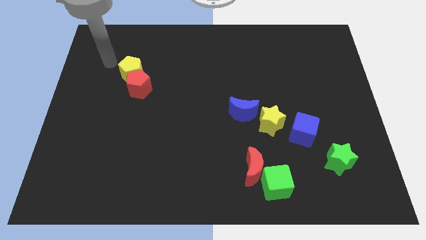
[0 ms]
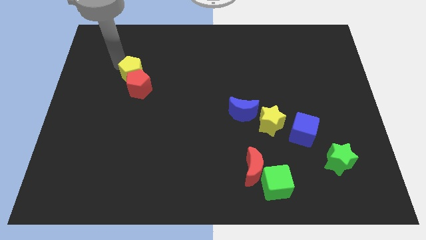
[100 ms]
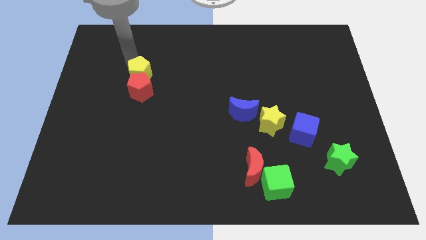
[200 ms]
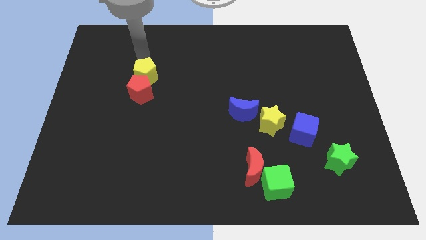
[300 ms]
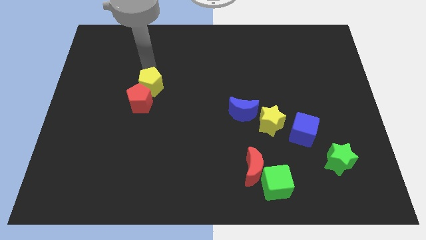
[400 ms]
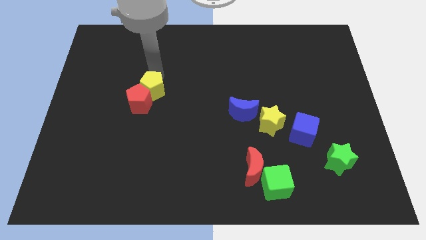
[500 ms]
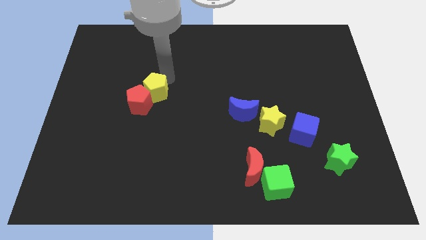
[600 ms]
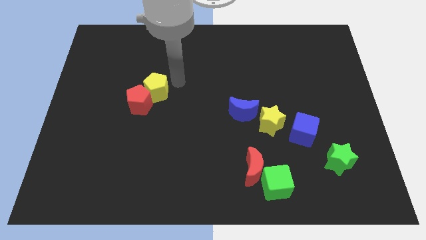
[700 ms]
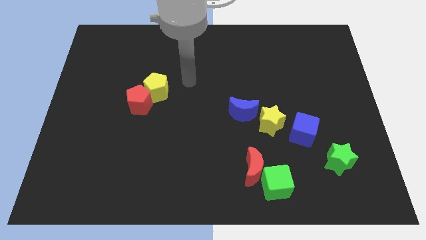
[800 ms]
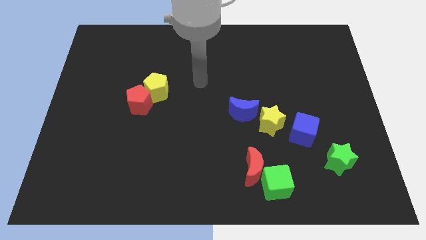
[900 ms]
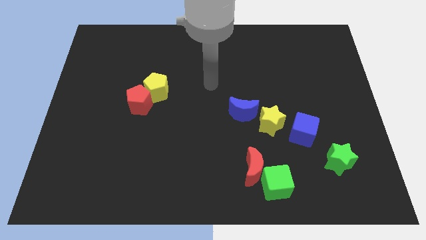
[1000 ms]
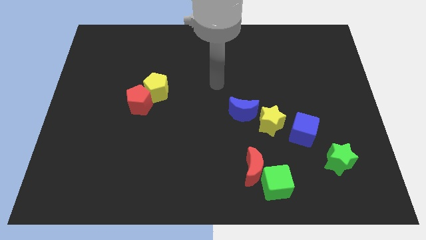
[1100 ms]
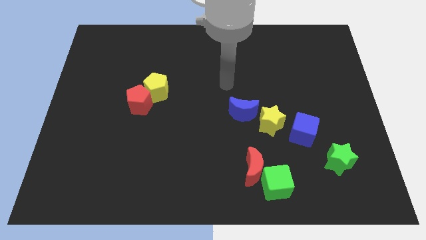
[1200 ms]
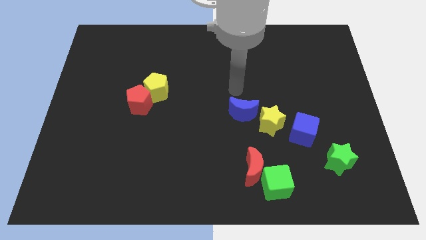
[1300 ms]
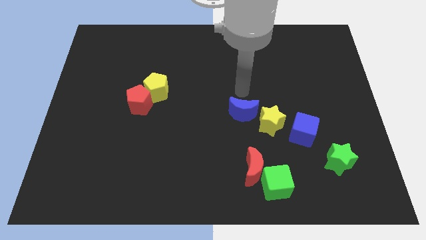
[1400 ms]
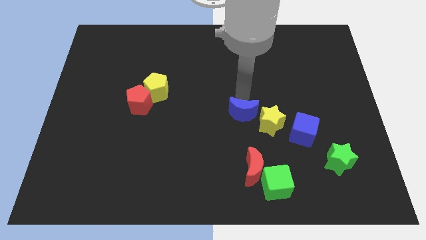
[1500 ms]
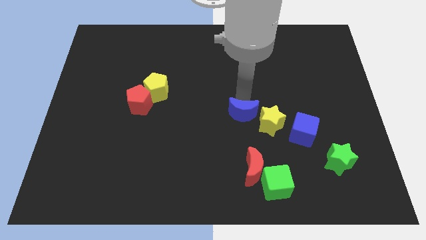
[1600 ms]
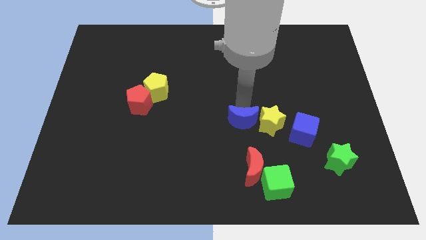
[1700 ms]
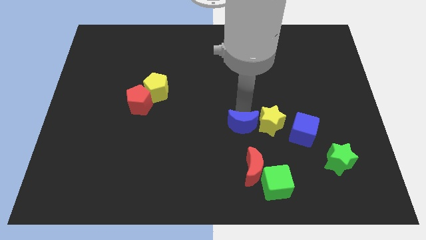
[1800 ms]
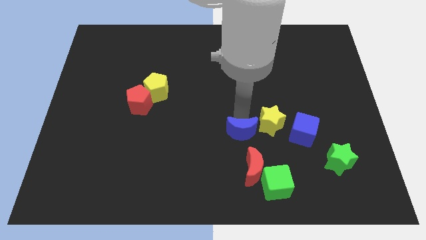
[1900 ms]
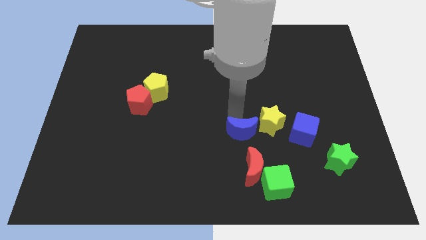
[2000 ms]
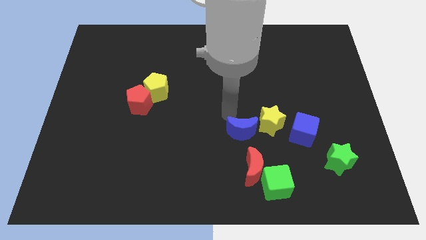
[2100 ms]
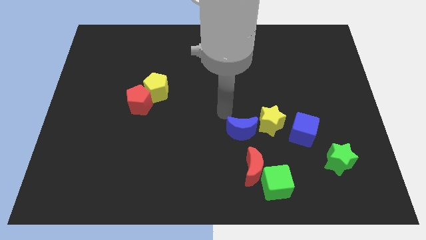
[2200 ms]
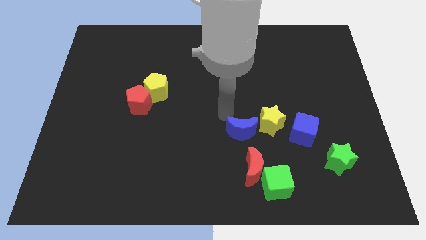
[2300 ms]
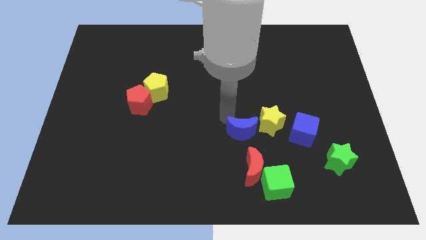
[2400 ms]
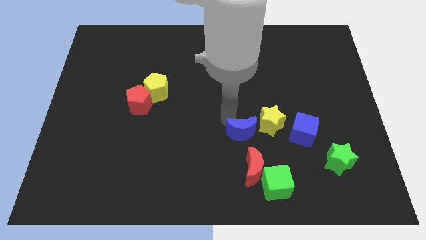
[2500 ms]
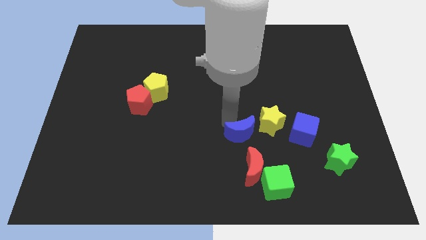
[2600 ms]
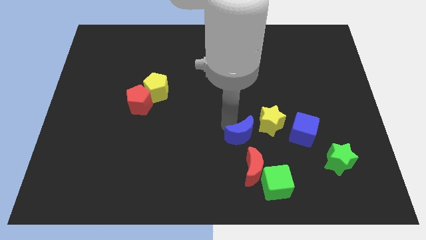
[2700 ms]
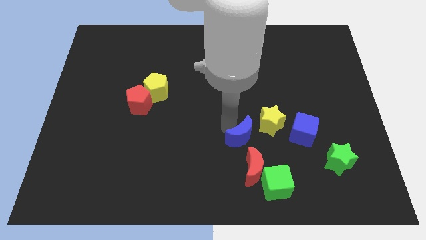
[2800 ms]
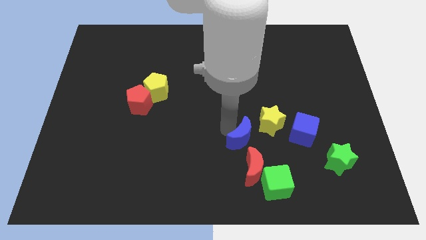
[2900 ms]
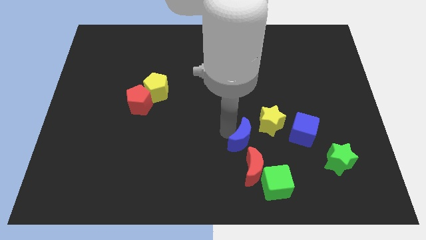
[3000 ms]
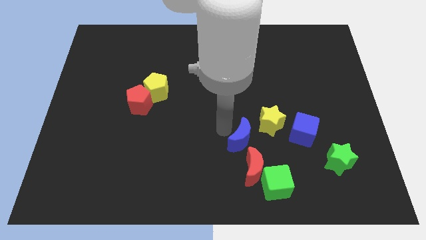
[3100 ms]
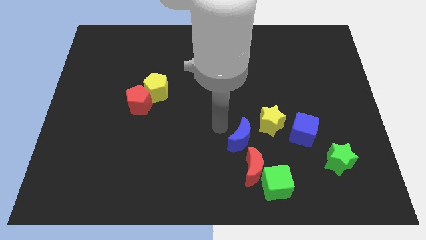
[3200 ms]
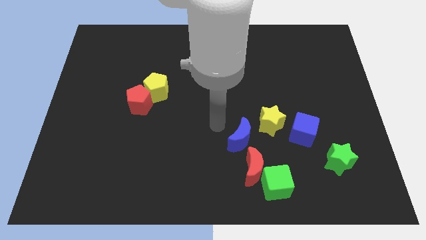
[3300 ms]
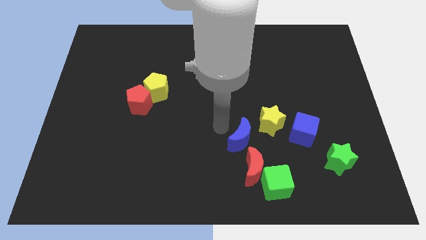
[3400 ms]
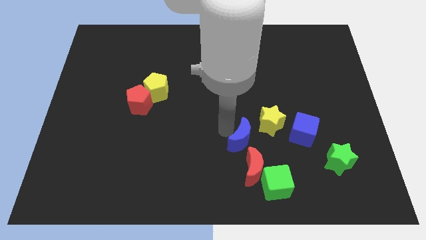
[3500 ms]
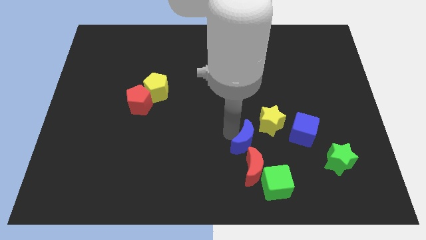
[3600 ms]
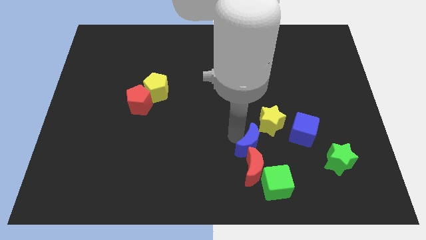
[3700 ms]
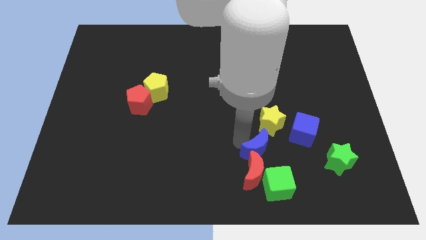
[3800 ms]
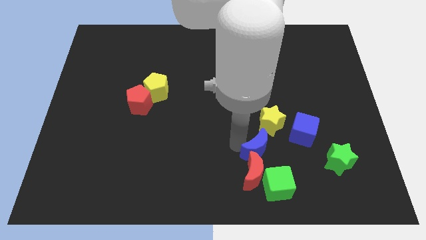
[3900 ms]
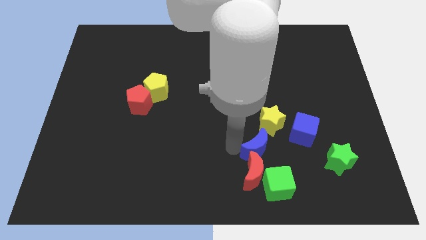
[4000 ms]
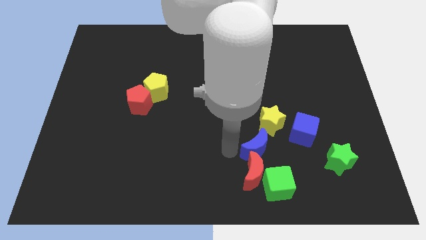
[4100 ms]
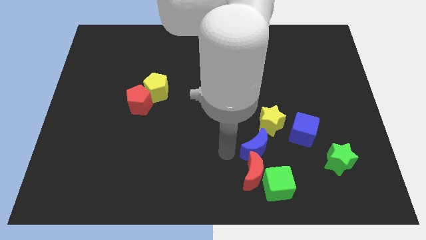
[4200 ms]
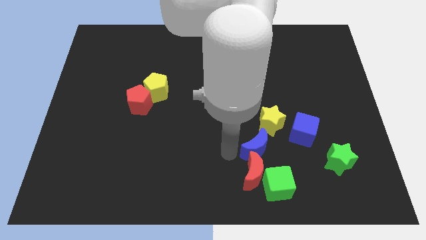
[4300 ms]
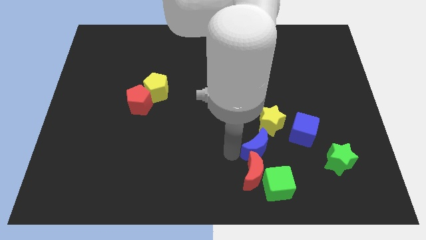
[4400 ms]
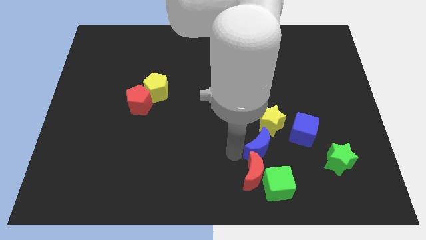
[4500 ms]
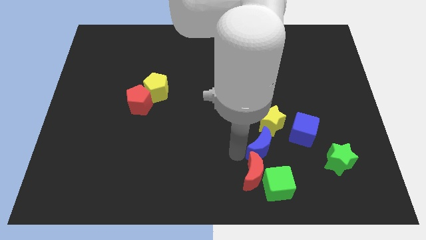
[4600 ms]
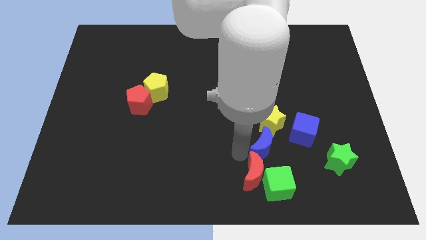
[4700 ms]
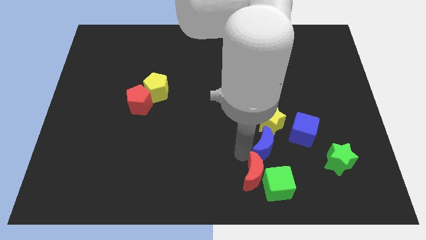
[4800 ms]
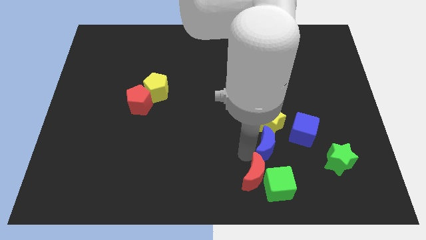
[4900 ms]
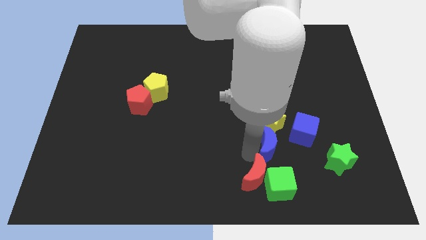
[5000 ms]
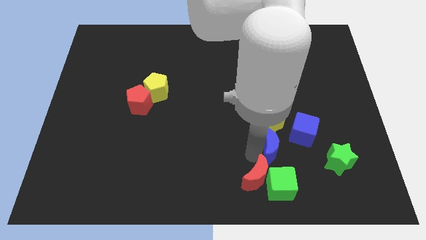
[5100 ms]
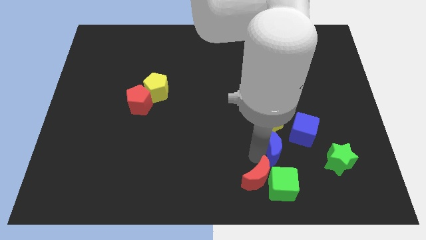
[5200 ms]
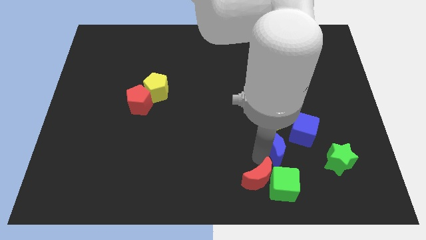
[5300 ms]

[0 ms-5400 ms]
put the blue moon diagonally down and to the right of the yellow star

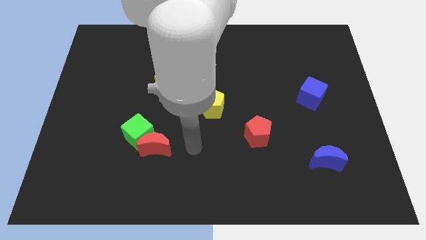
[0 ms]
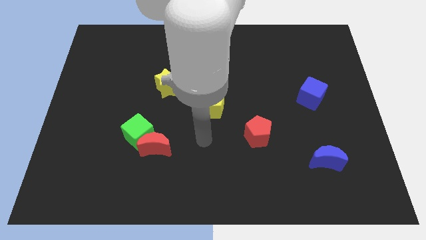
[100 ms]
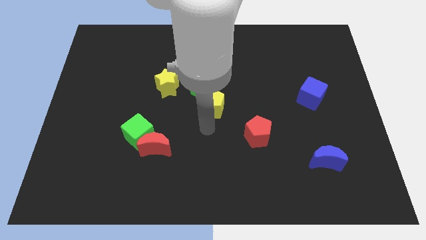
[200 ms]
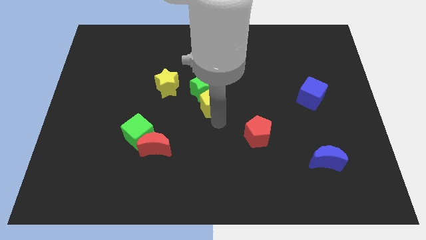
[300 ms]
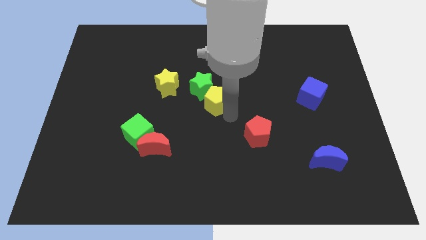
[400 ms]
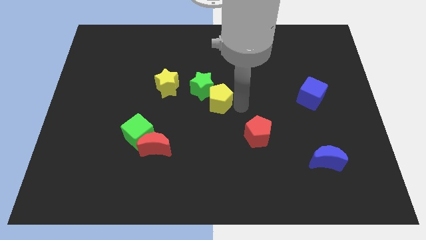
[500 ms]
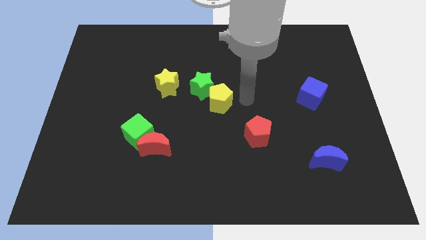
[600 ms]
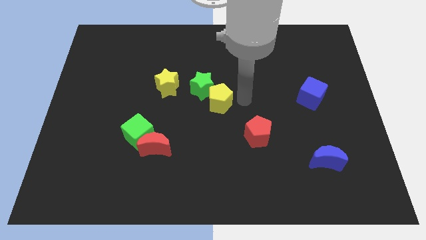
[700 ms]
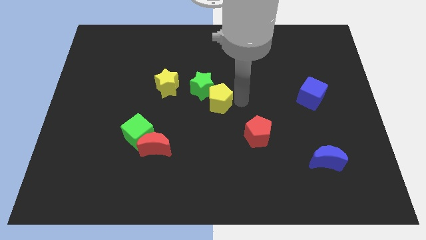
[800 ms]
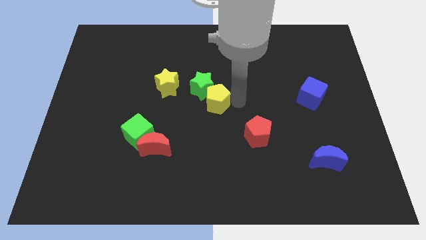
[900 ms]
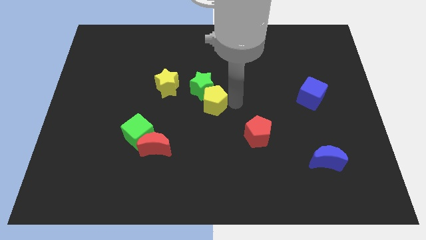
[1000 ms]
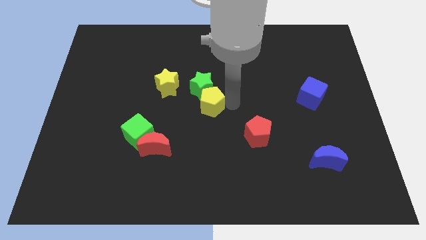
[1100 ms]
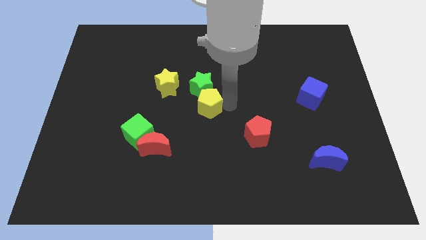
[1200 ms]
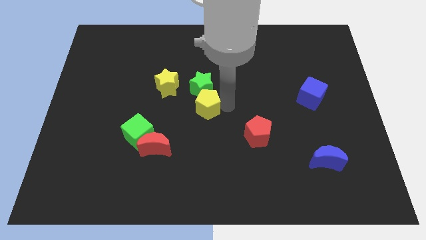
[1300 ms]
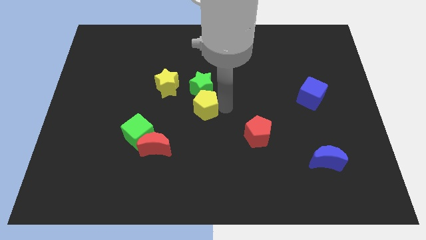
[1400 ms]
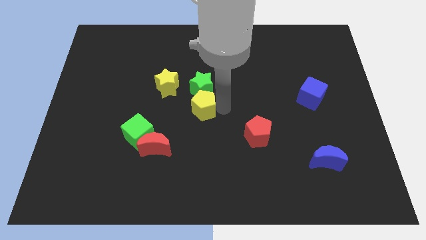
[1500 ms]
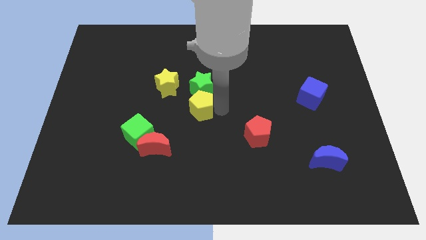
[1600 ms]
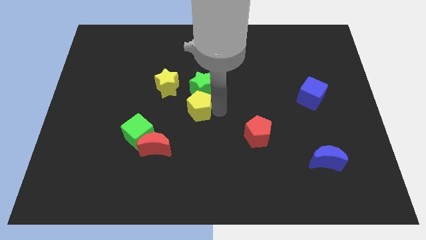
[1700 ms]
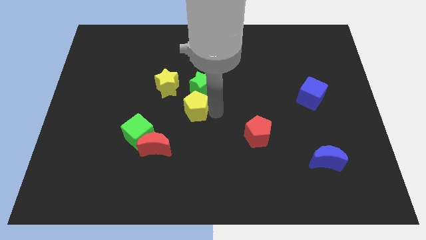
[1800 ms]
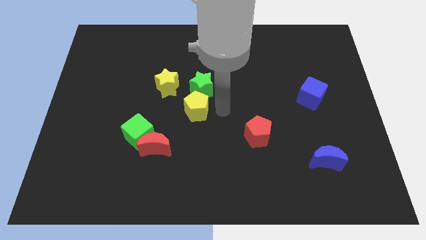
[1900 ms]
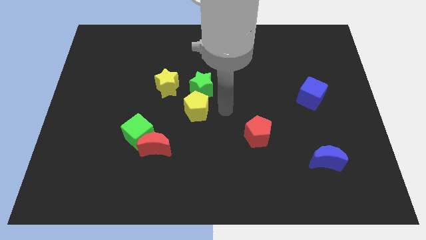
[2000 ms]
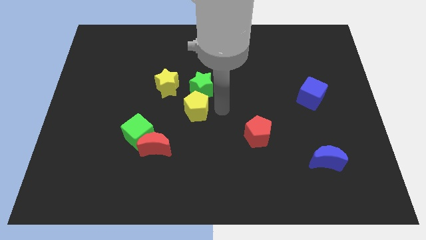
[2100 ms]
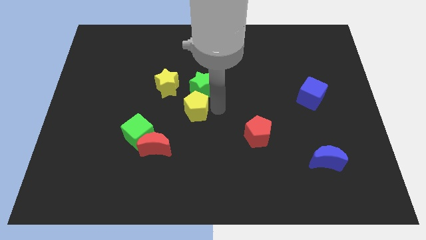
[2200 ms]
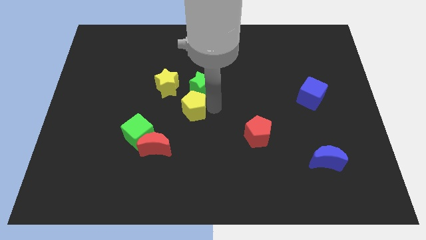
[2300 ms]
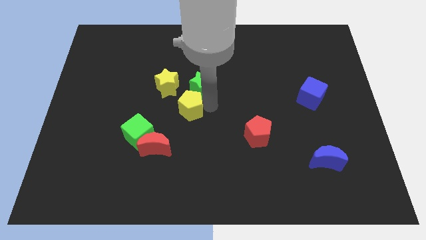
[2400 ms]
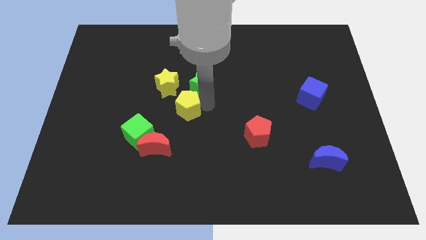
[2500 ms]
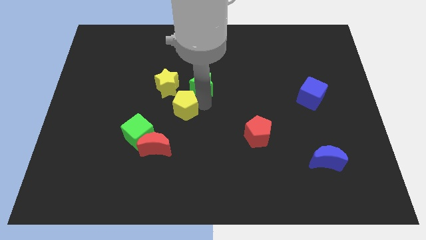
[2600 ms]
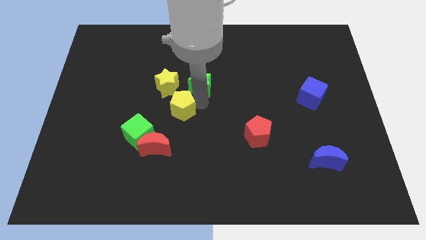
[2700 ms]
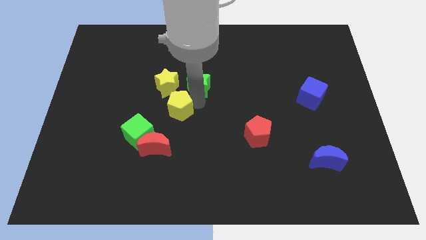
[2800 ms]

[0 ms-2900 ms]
move the yellow pentagon to the top side of the red moon
